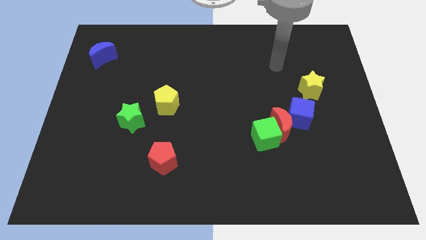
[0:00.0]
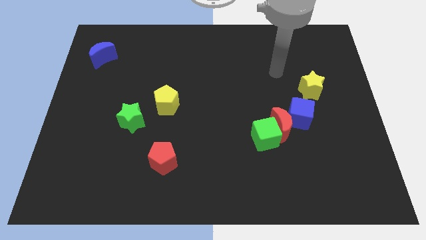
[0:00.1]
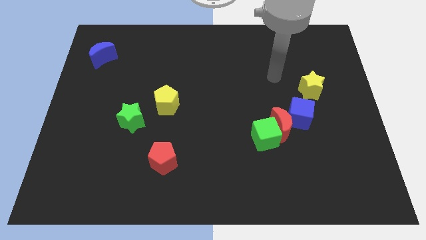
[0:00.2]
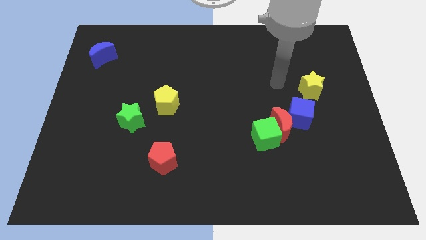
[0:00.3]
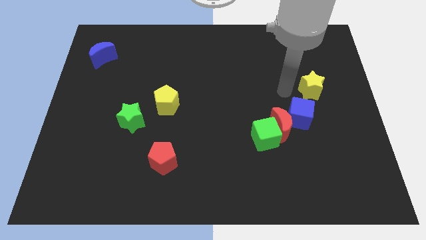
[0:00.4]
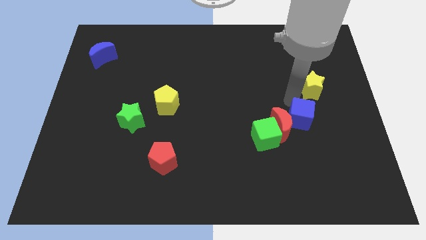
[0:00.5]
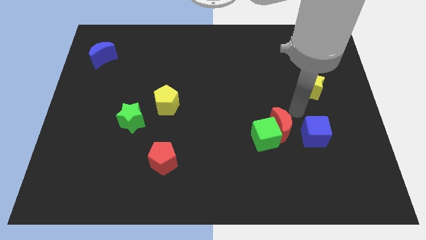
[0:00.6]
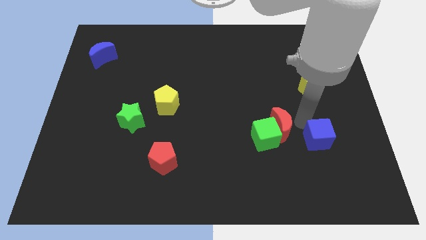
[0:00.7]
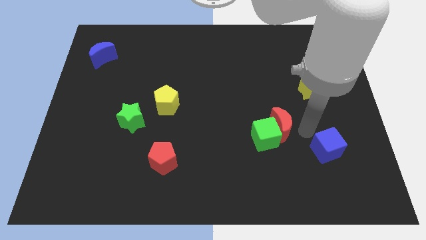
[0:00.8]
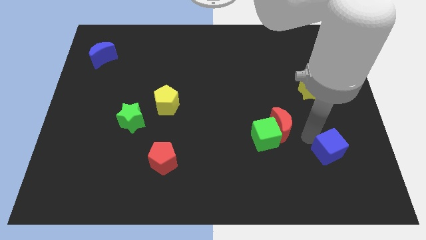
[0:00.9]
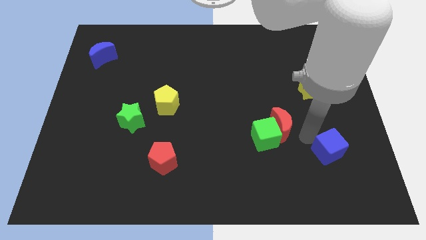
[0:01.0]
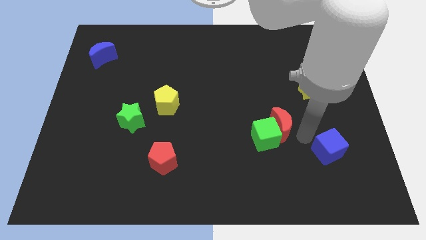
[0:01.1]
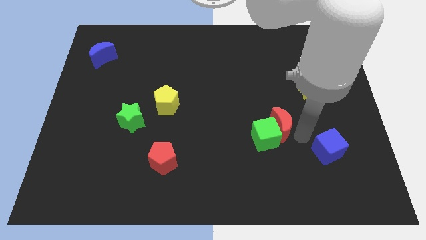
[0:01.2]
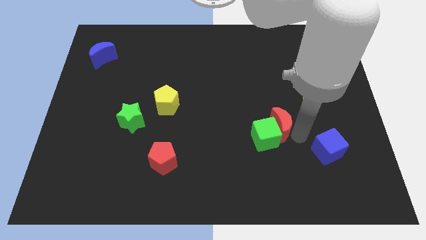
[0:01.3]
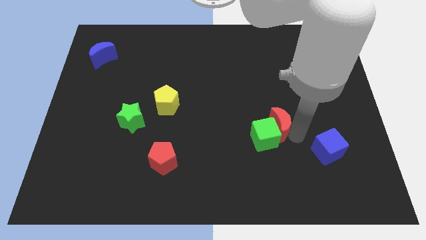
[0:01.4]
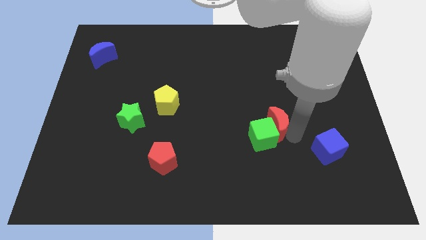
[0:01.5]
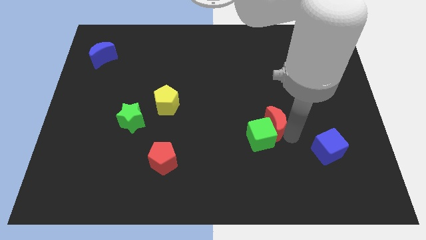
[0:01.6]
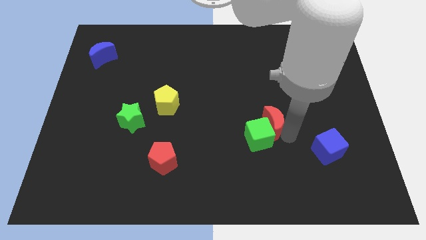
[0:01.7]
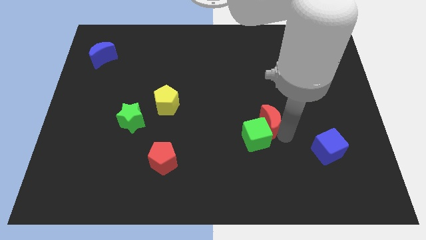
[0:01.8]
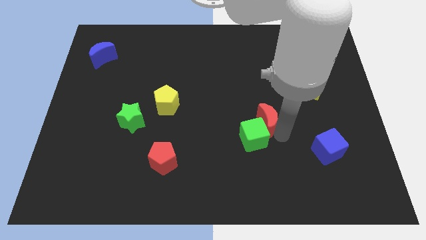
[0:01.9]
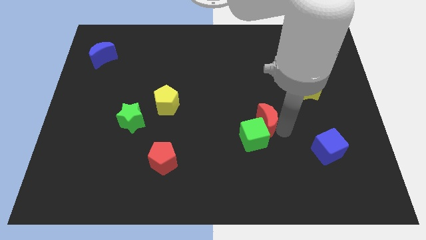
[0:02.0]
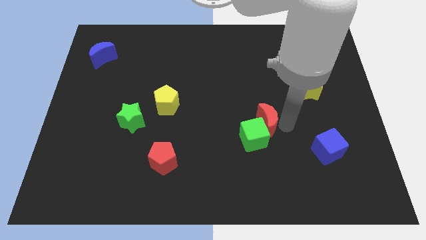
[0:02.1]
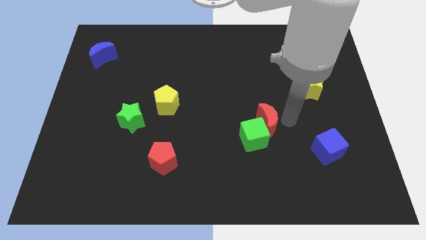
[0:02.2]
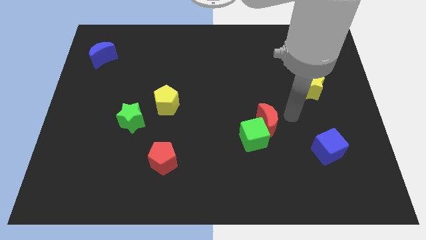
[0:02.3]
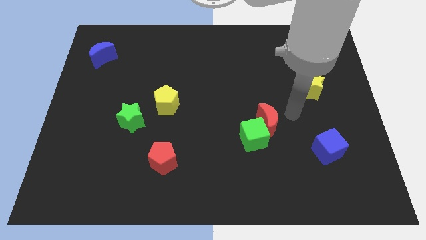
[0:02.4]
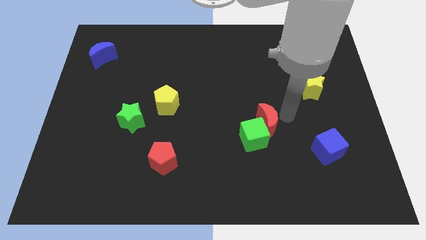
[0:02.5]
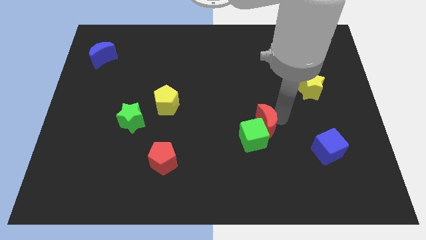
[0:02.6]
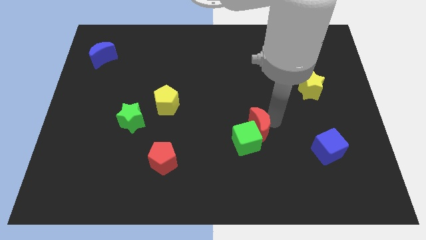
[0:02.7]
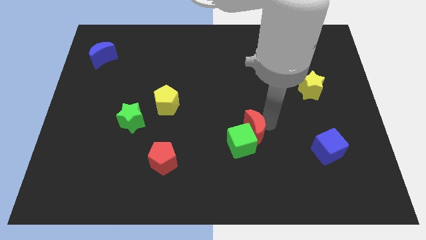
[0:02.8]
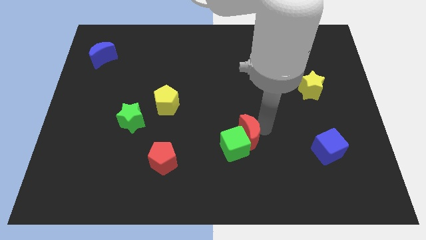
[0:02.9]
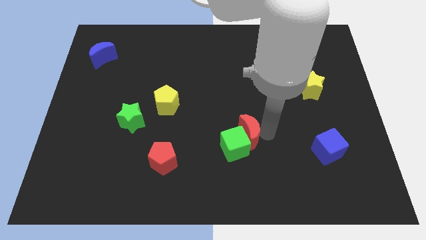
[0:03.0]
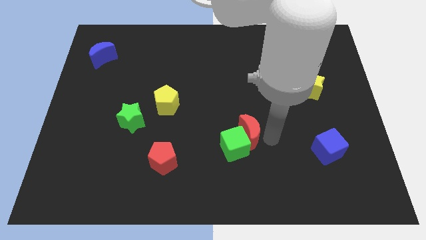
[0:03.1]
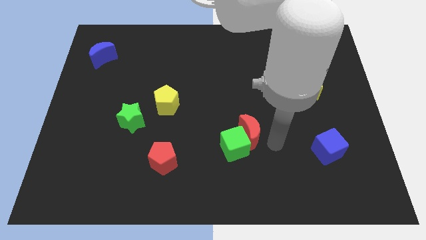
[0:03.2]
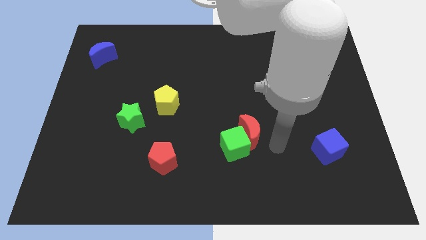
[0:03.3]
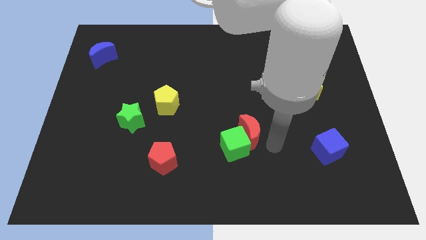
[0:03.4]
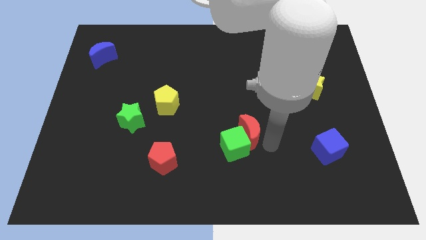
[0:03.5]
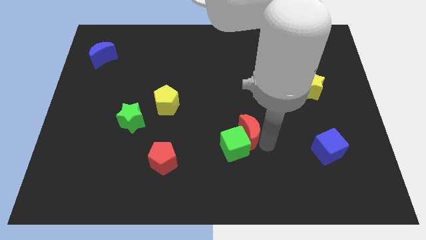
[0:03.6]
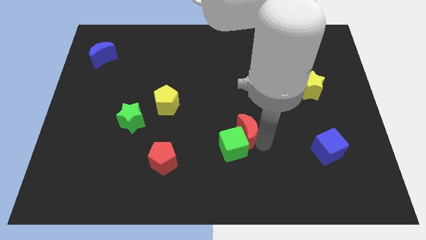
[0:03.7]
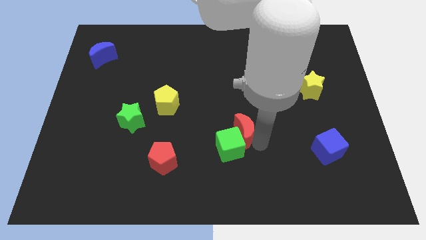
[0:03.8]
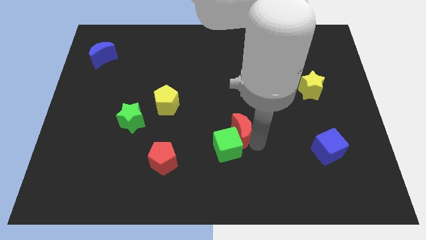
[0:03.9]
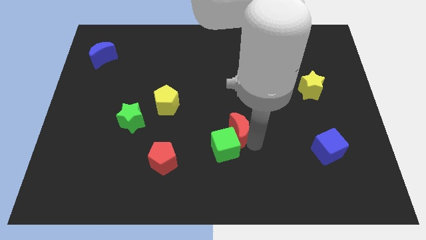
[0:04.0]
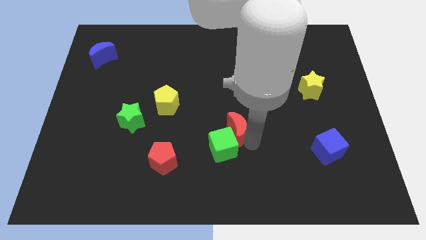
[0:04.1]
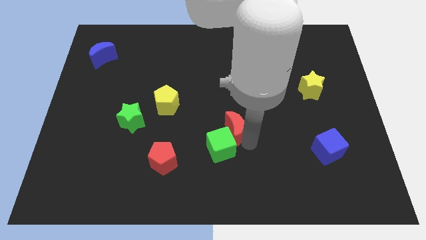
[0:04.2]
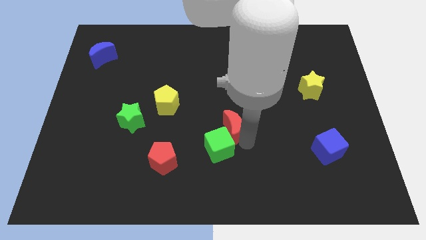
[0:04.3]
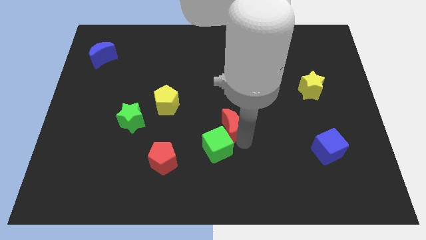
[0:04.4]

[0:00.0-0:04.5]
move the red moon away from the green cube and blue cube

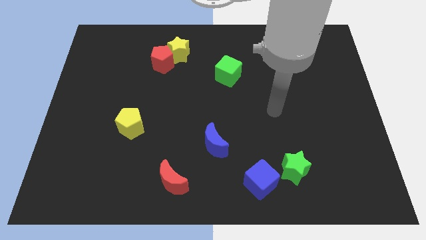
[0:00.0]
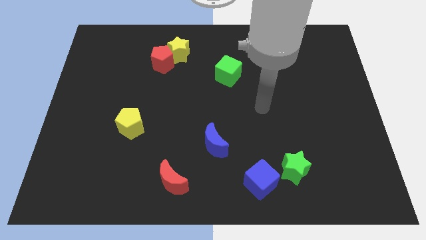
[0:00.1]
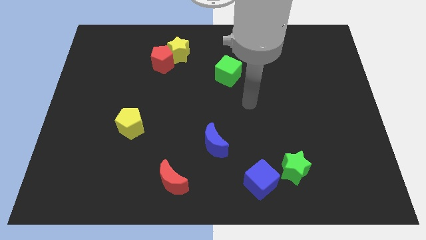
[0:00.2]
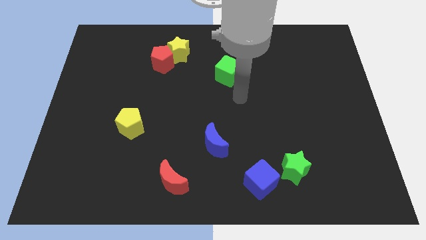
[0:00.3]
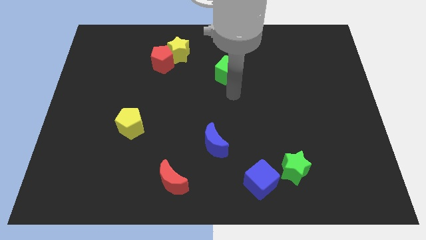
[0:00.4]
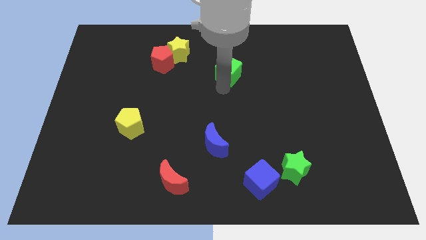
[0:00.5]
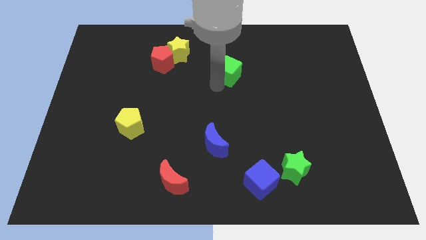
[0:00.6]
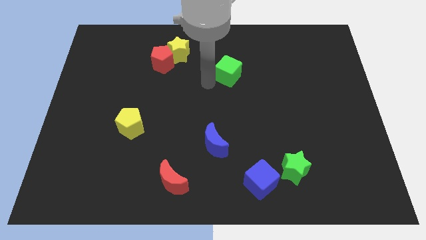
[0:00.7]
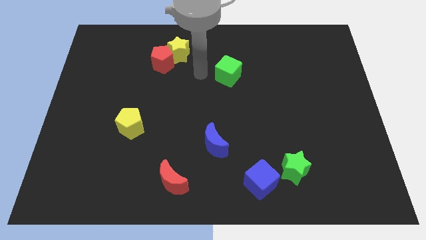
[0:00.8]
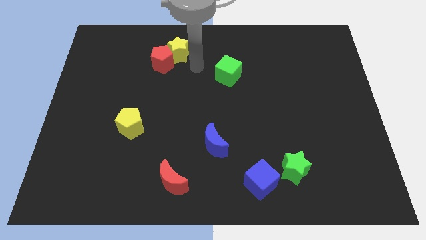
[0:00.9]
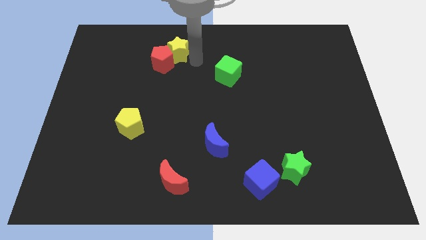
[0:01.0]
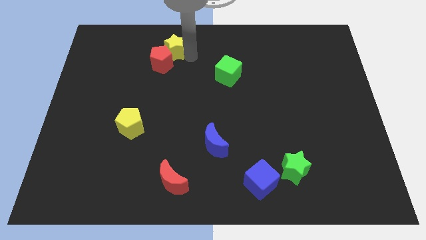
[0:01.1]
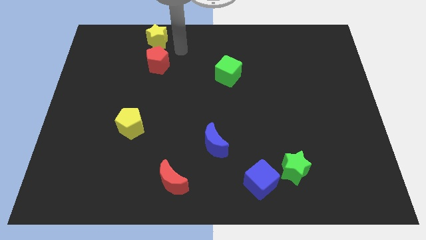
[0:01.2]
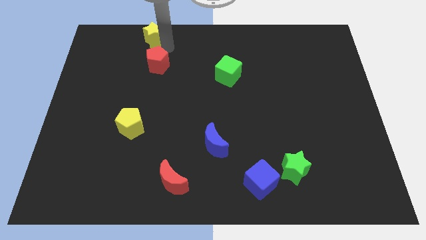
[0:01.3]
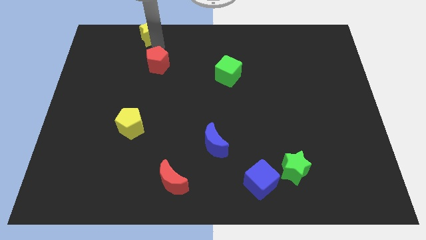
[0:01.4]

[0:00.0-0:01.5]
move the red pentagon away from the yellow star

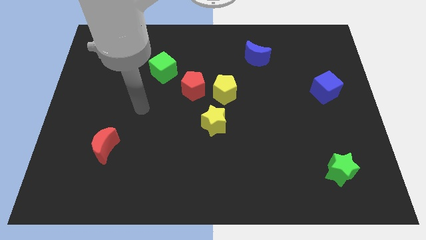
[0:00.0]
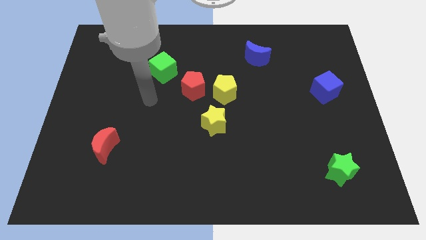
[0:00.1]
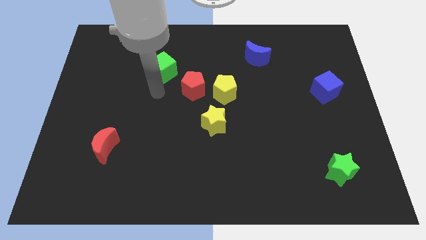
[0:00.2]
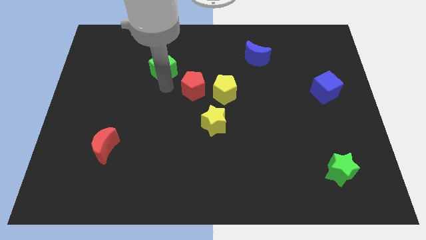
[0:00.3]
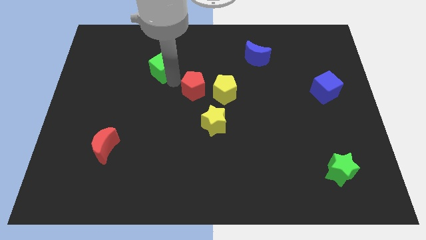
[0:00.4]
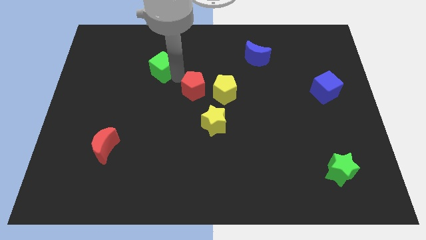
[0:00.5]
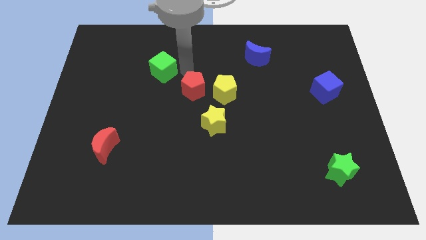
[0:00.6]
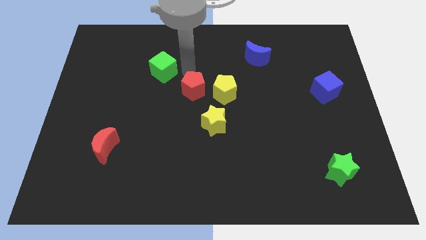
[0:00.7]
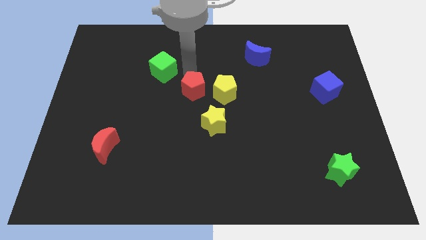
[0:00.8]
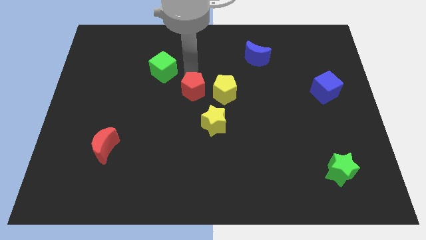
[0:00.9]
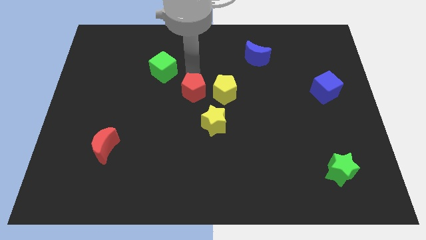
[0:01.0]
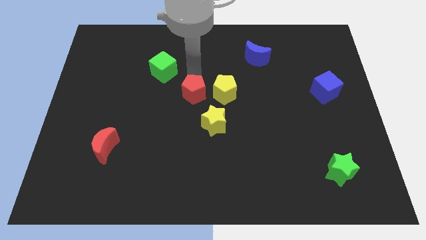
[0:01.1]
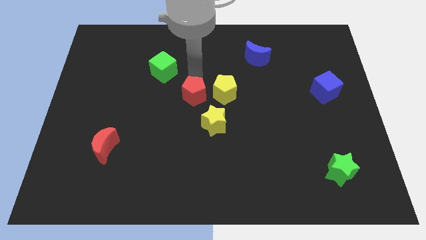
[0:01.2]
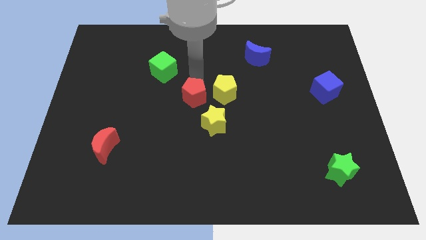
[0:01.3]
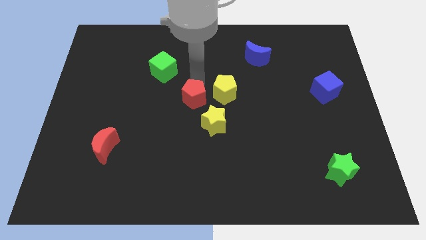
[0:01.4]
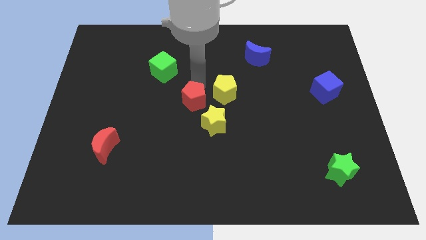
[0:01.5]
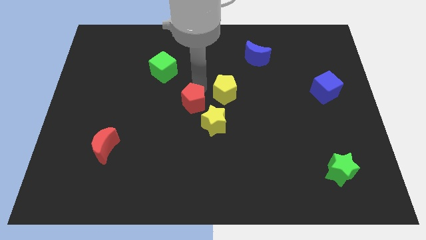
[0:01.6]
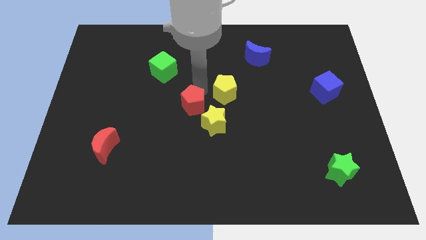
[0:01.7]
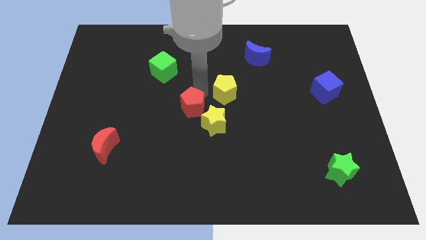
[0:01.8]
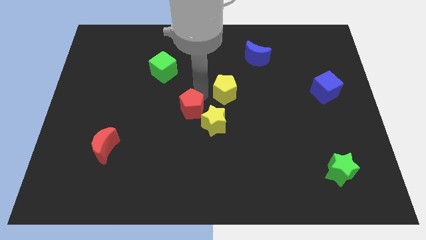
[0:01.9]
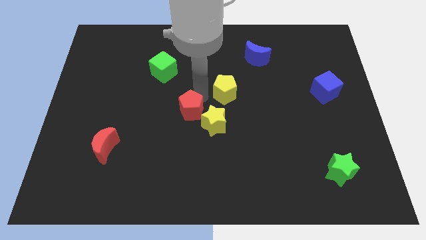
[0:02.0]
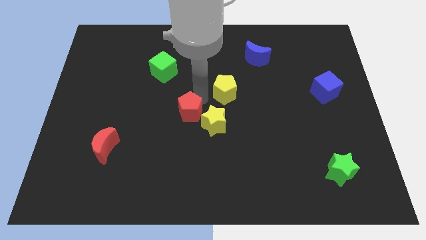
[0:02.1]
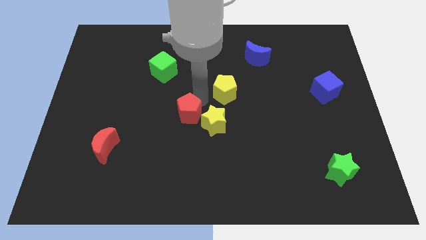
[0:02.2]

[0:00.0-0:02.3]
move the red pentagon away from the yellow pentagon and green cube

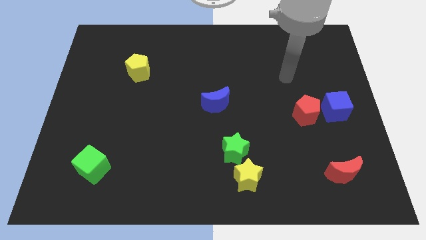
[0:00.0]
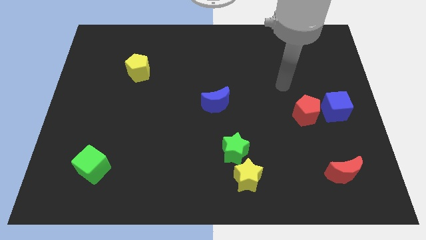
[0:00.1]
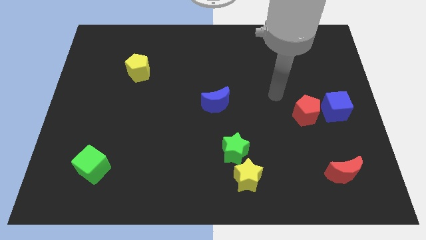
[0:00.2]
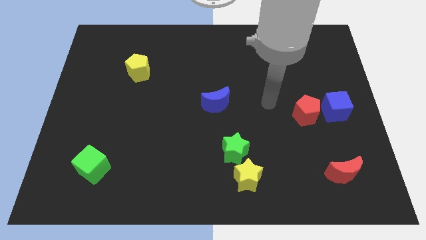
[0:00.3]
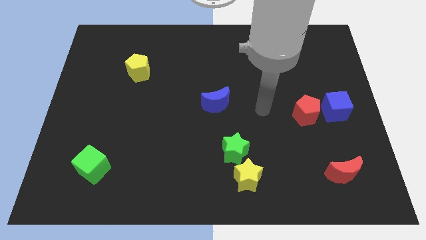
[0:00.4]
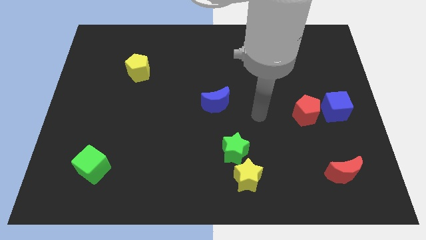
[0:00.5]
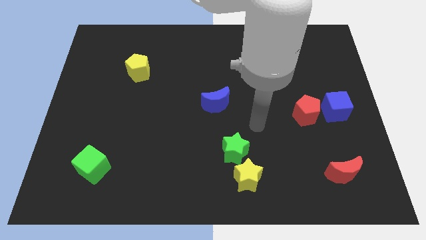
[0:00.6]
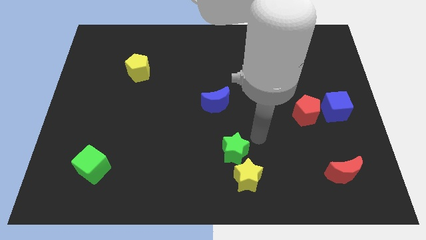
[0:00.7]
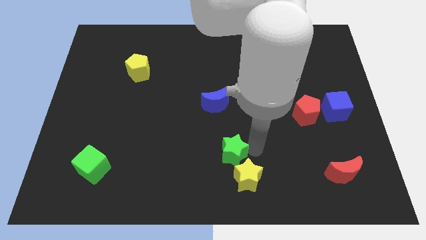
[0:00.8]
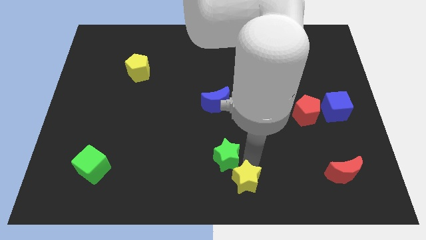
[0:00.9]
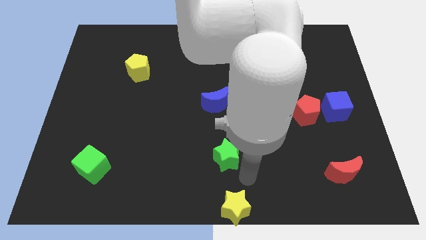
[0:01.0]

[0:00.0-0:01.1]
move the green star away from the yellow star
